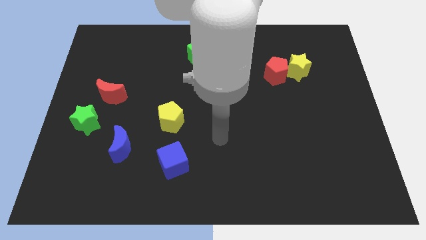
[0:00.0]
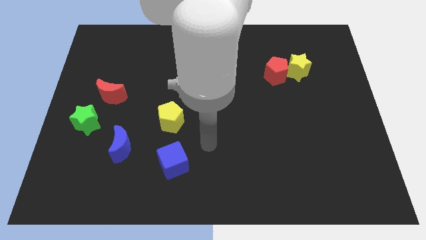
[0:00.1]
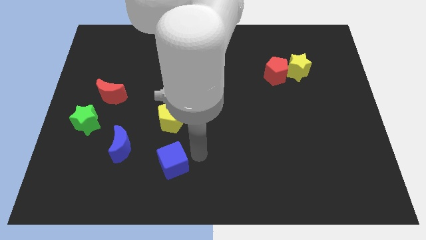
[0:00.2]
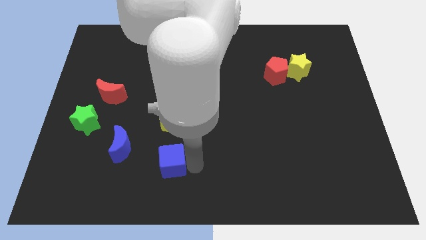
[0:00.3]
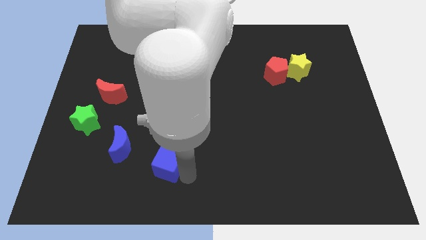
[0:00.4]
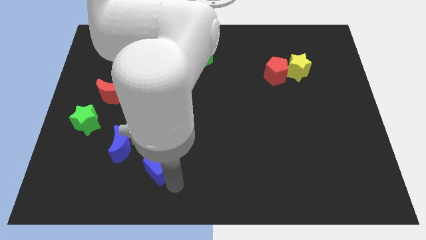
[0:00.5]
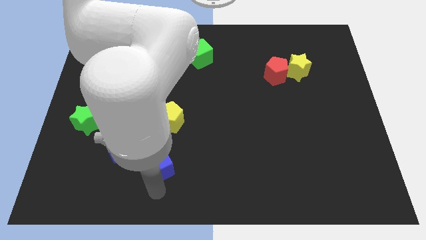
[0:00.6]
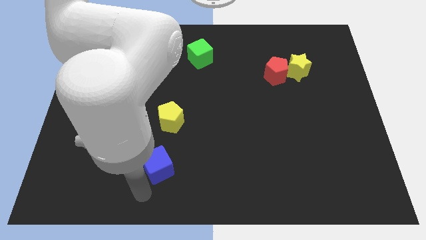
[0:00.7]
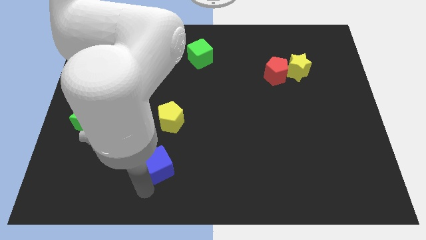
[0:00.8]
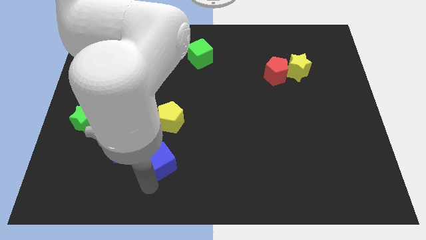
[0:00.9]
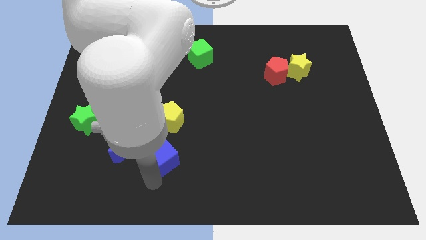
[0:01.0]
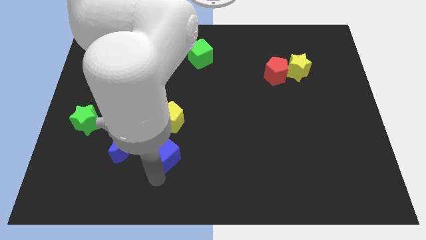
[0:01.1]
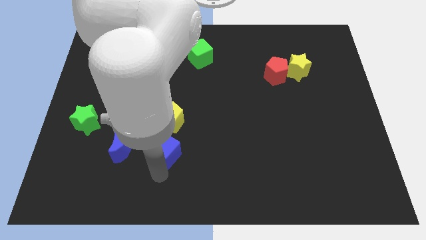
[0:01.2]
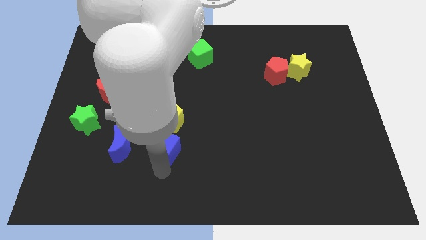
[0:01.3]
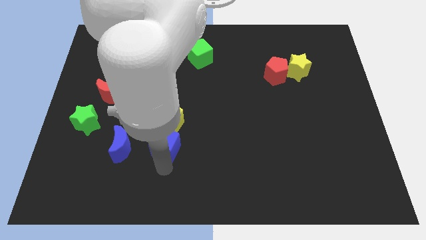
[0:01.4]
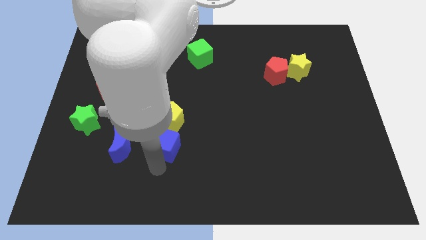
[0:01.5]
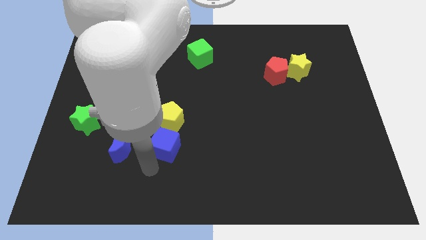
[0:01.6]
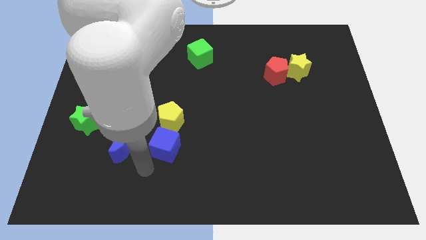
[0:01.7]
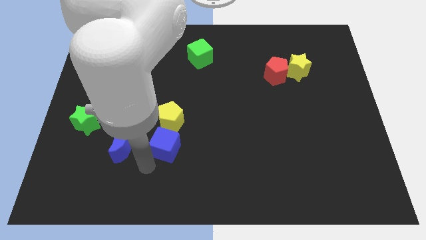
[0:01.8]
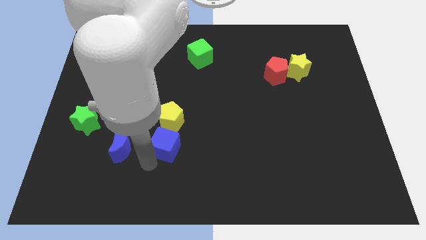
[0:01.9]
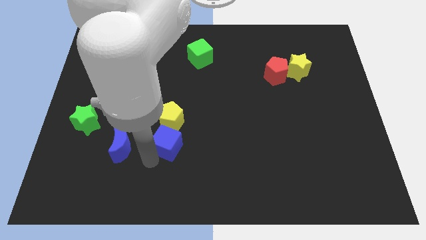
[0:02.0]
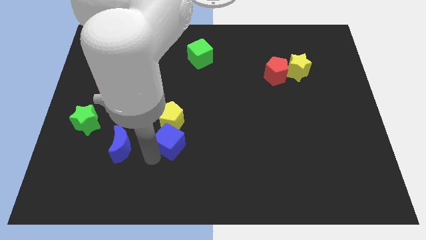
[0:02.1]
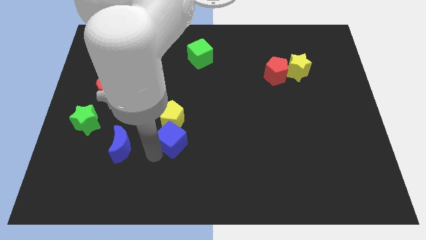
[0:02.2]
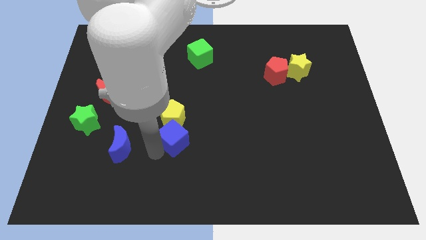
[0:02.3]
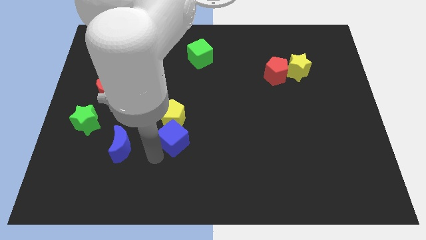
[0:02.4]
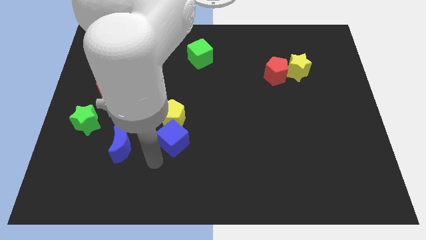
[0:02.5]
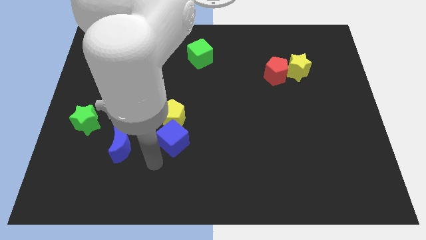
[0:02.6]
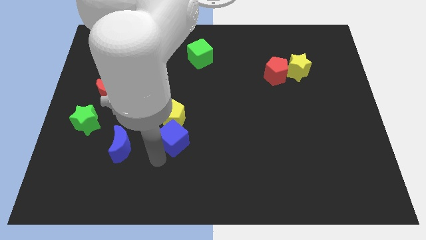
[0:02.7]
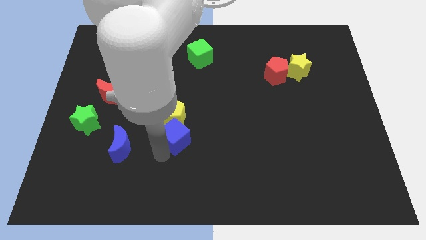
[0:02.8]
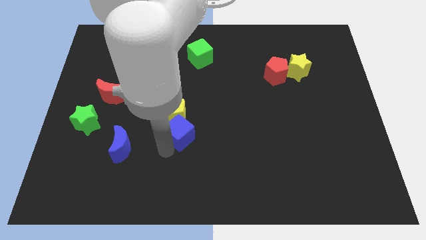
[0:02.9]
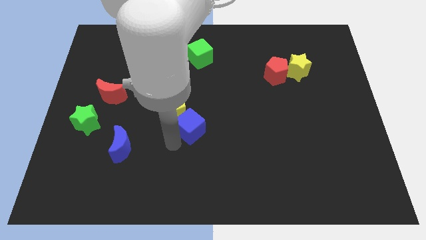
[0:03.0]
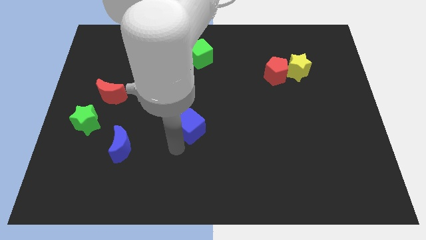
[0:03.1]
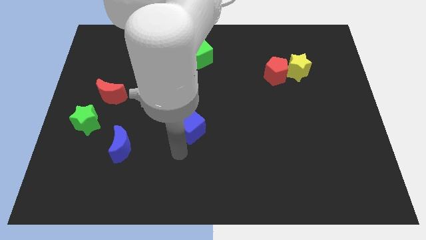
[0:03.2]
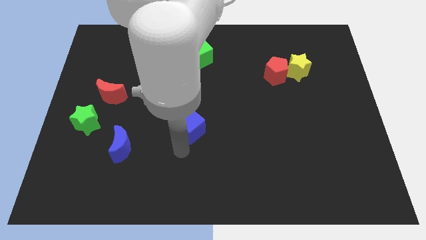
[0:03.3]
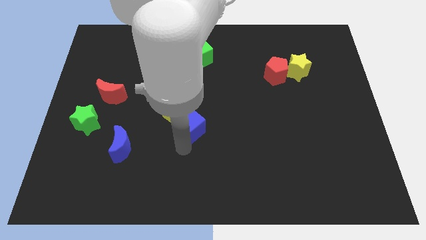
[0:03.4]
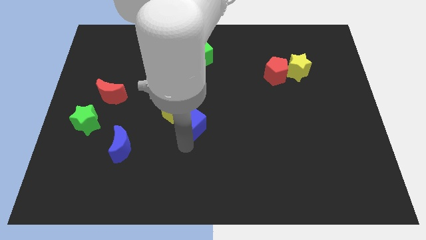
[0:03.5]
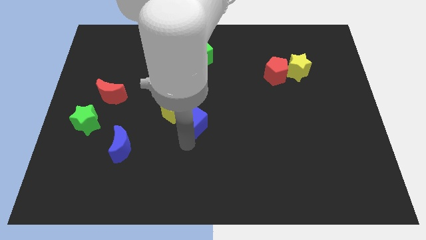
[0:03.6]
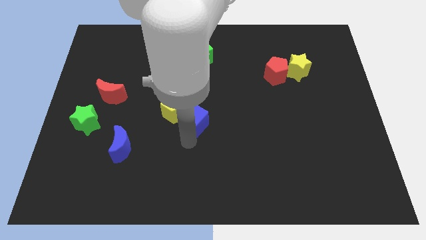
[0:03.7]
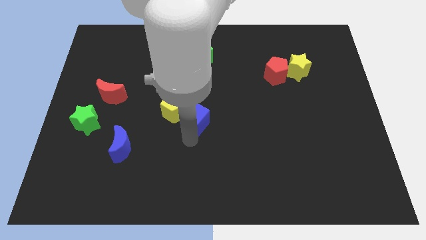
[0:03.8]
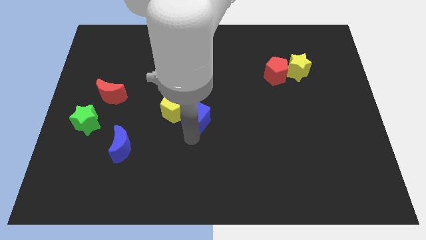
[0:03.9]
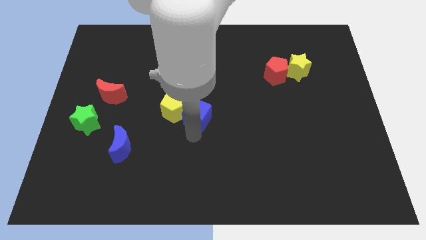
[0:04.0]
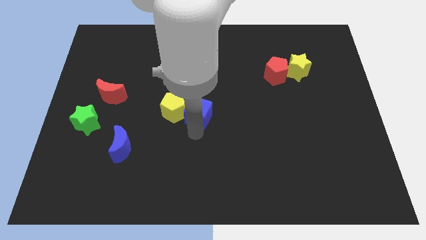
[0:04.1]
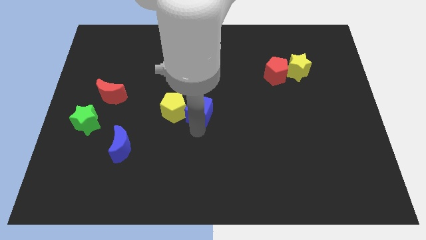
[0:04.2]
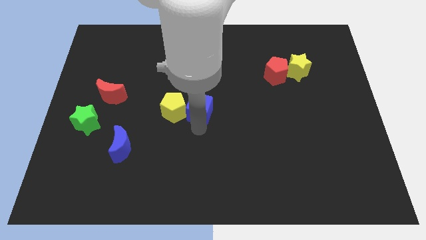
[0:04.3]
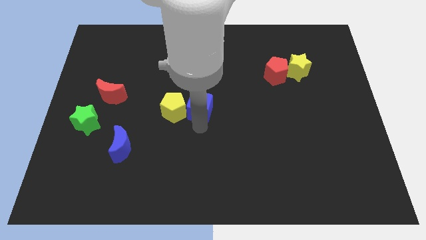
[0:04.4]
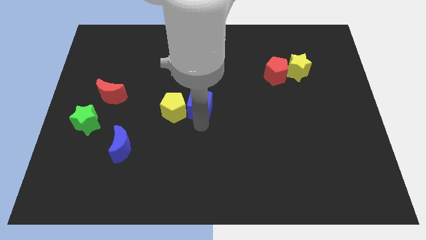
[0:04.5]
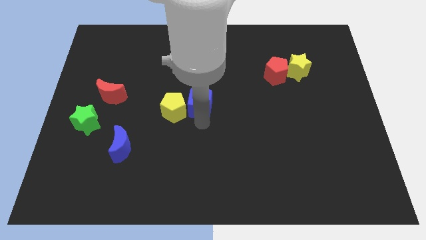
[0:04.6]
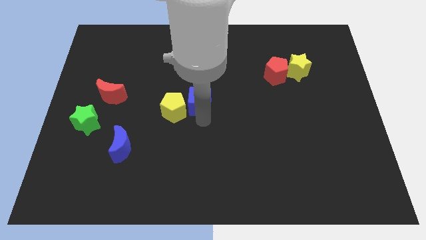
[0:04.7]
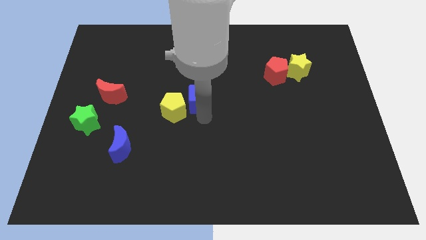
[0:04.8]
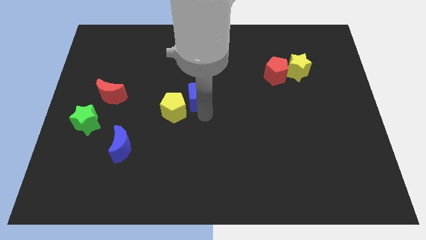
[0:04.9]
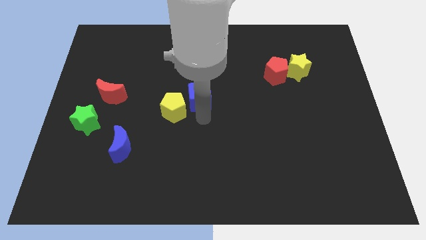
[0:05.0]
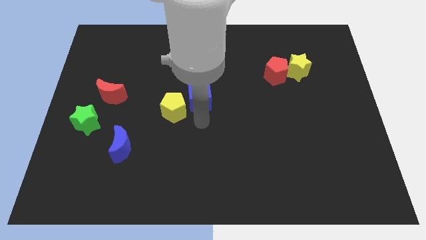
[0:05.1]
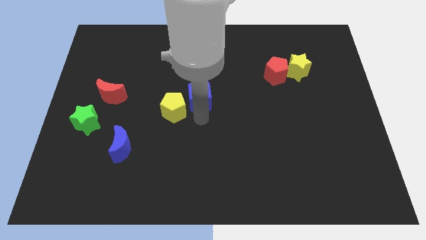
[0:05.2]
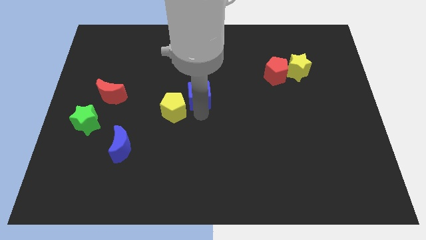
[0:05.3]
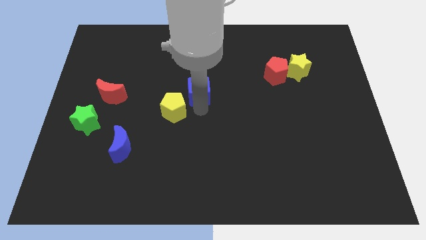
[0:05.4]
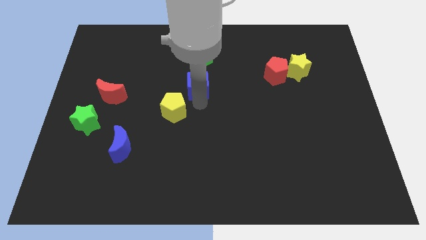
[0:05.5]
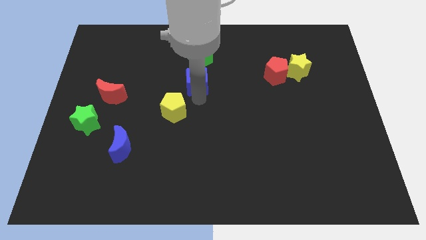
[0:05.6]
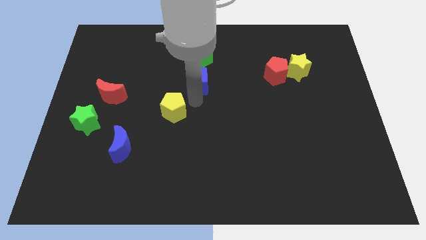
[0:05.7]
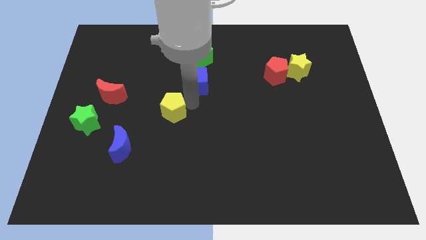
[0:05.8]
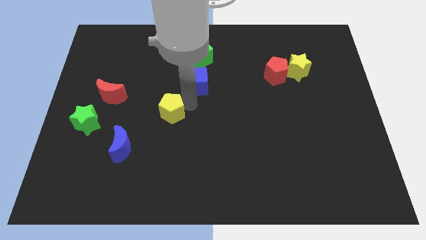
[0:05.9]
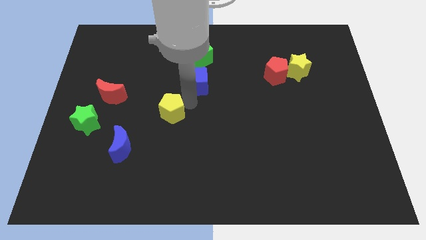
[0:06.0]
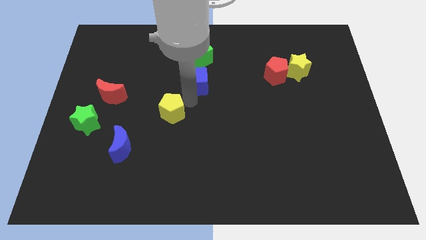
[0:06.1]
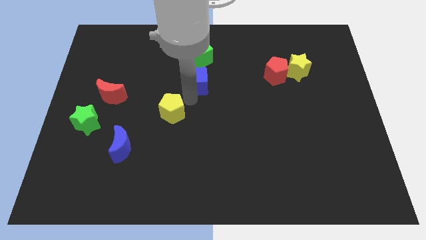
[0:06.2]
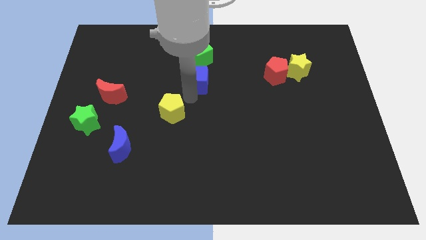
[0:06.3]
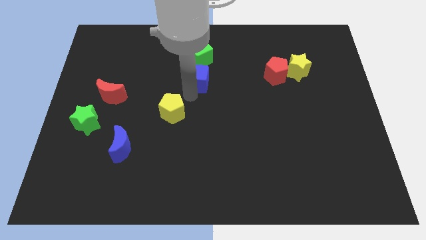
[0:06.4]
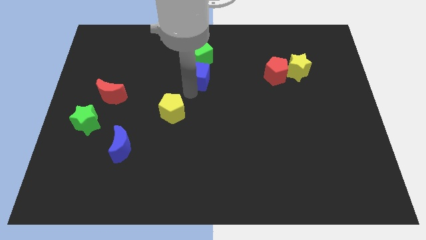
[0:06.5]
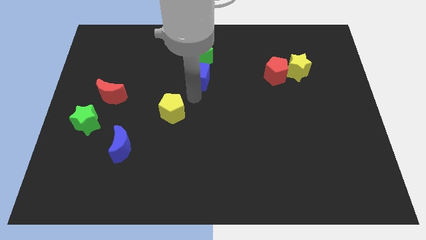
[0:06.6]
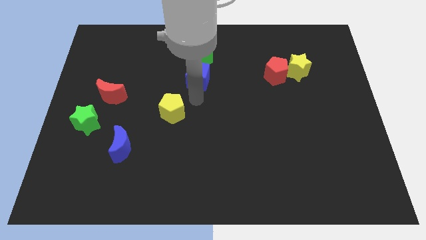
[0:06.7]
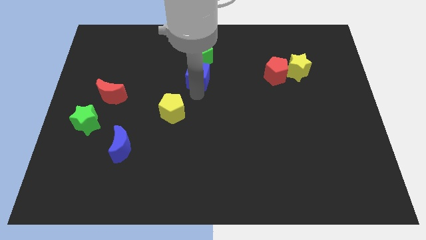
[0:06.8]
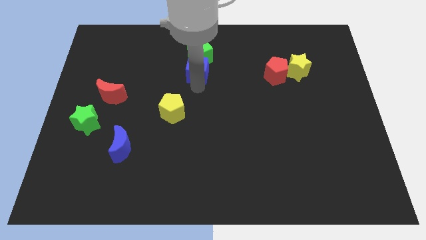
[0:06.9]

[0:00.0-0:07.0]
put the blue cube close to the green cube
